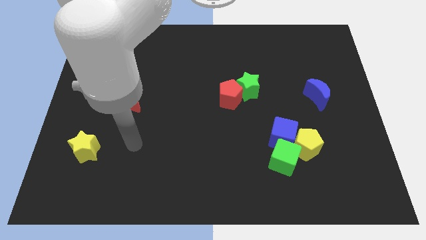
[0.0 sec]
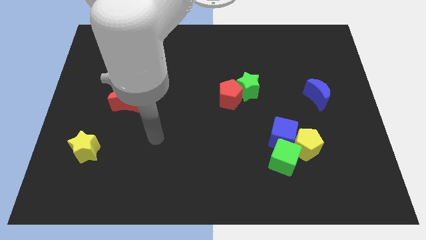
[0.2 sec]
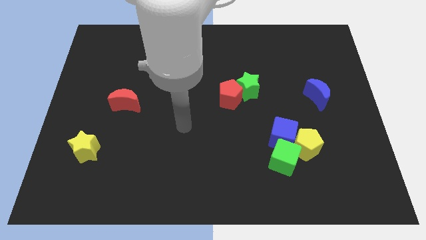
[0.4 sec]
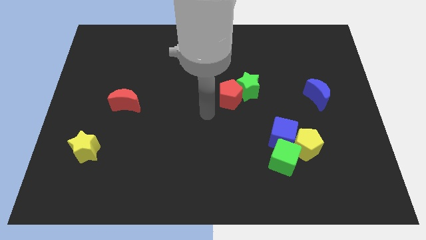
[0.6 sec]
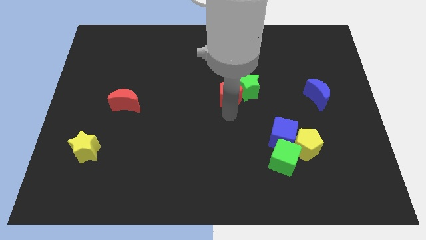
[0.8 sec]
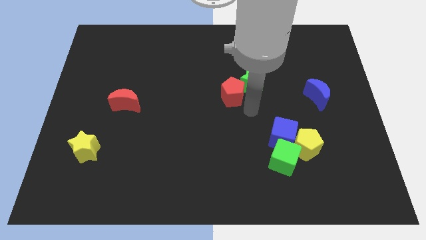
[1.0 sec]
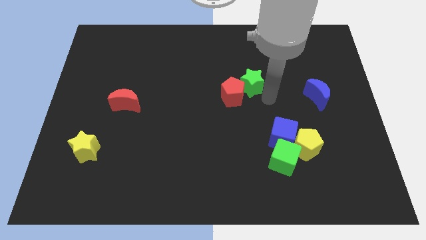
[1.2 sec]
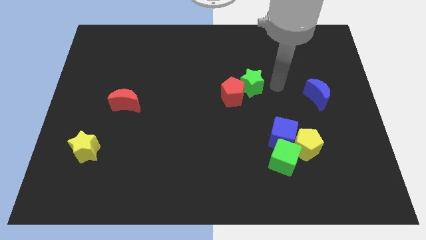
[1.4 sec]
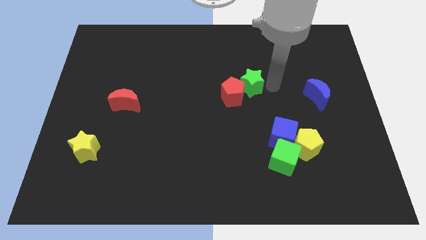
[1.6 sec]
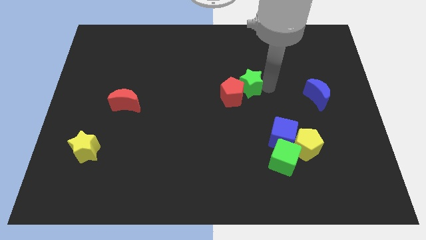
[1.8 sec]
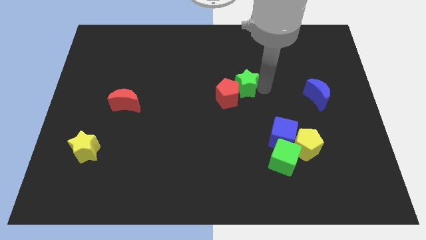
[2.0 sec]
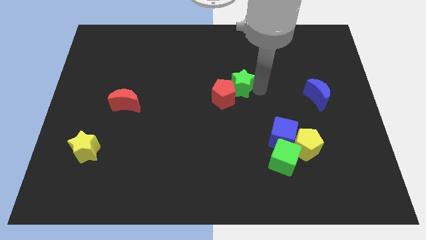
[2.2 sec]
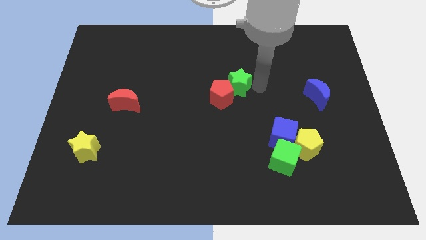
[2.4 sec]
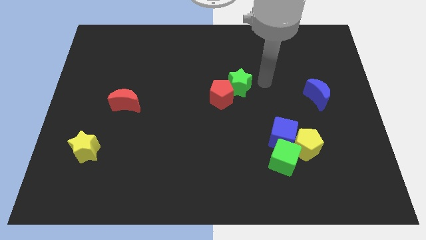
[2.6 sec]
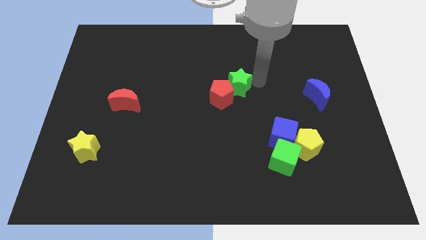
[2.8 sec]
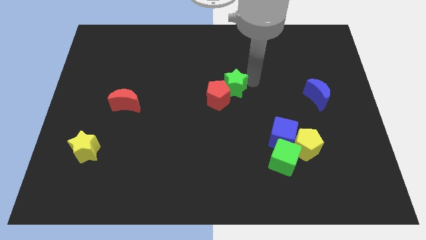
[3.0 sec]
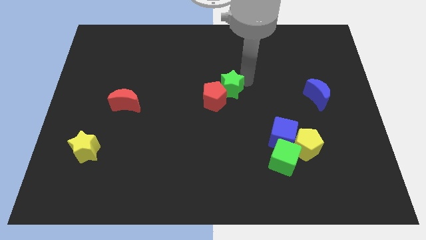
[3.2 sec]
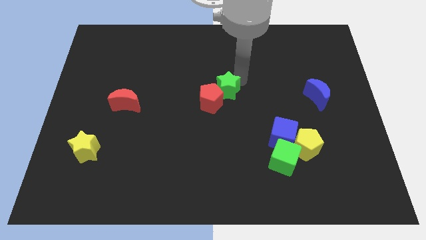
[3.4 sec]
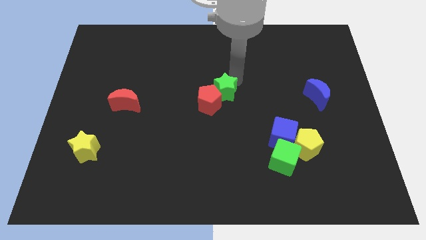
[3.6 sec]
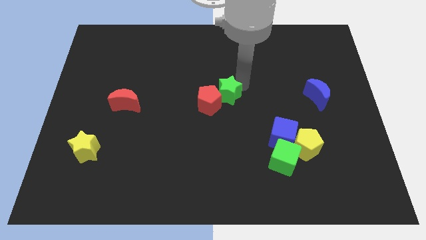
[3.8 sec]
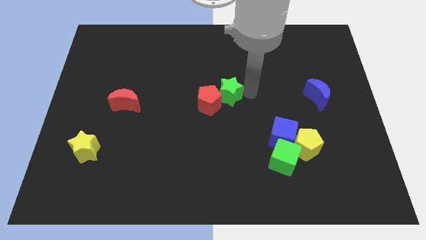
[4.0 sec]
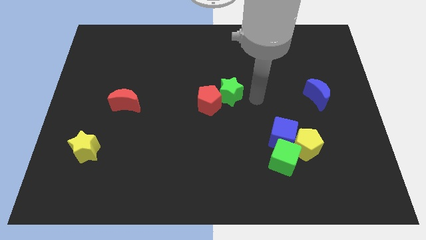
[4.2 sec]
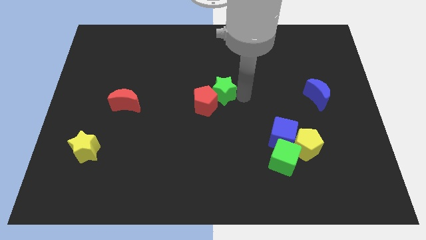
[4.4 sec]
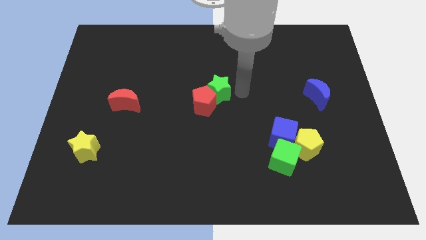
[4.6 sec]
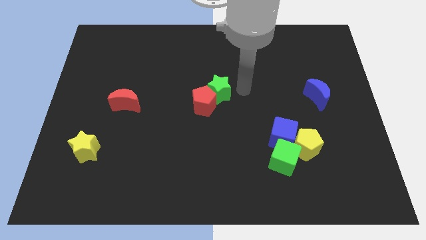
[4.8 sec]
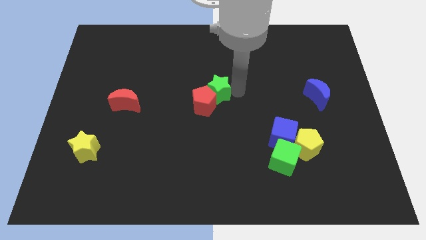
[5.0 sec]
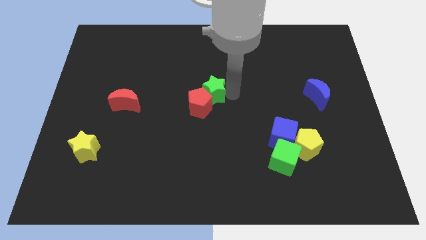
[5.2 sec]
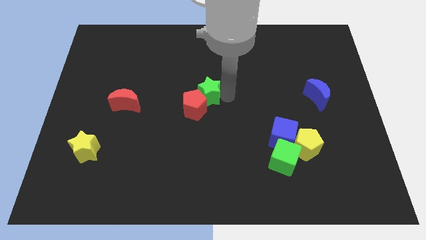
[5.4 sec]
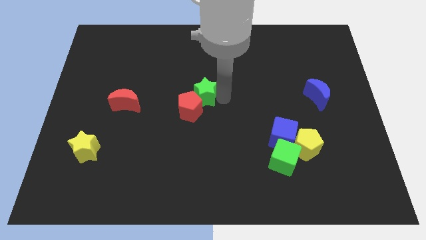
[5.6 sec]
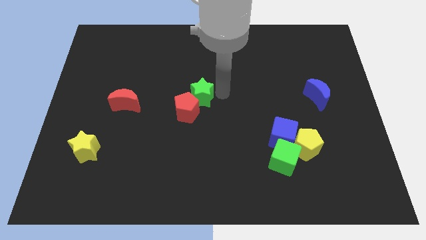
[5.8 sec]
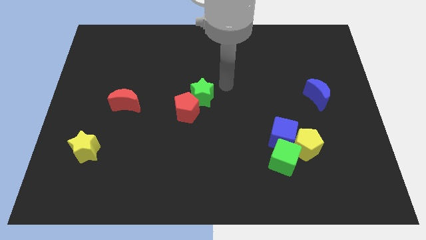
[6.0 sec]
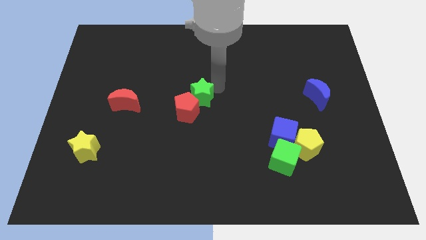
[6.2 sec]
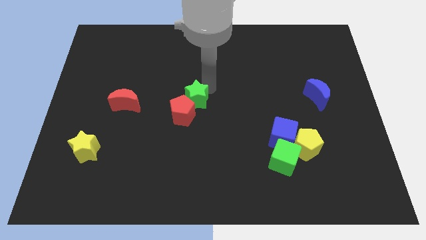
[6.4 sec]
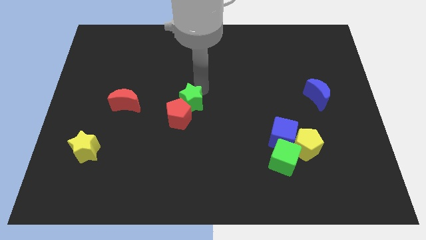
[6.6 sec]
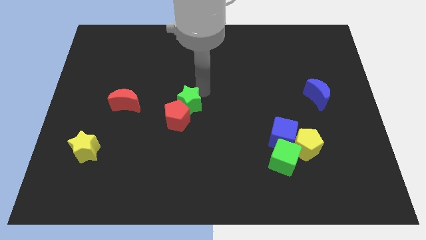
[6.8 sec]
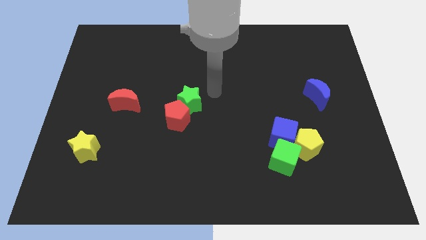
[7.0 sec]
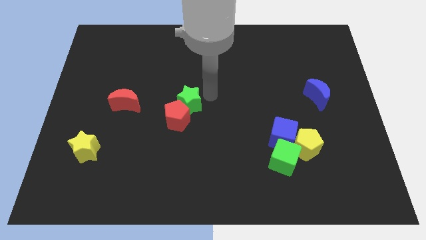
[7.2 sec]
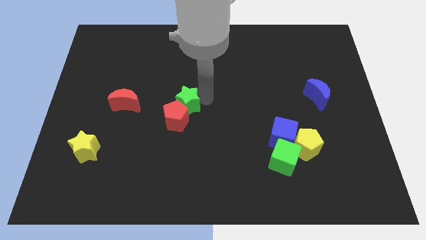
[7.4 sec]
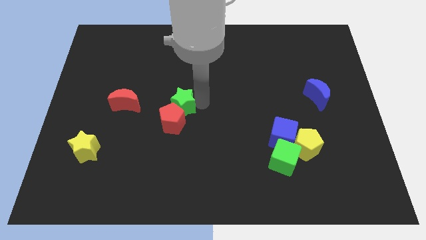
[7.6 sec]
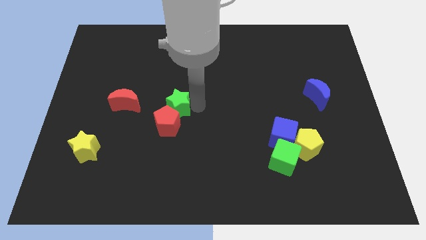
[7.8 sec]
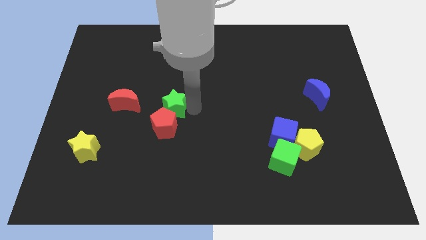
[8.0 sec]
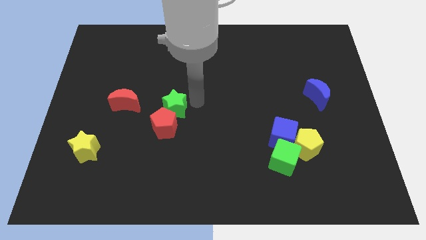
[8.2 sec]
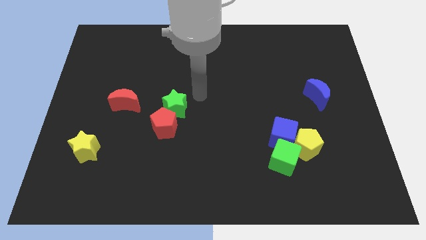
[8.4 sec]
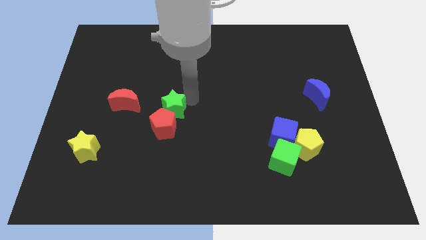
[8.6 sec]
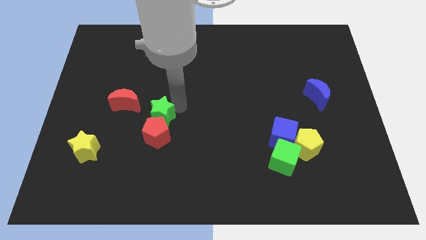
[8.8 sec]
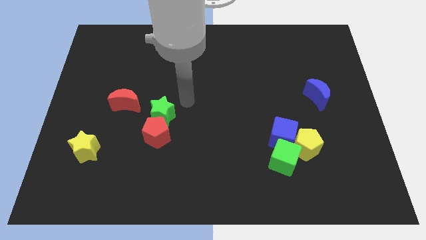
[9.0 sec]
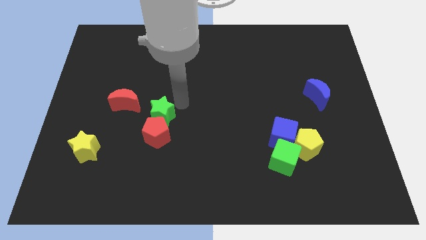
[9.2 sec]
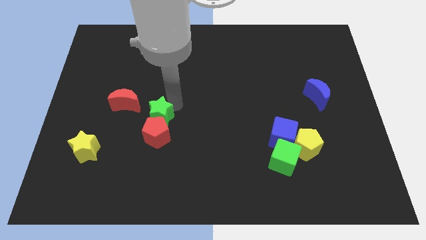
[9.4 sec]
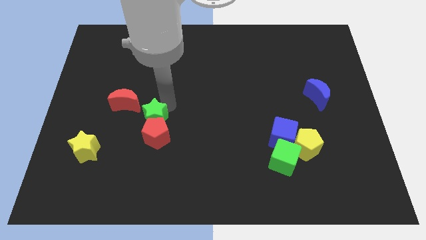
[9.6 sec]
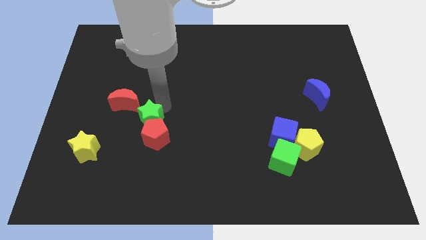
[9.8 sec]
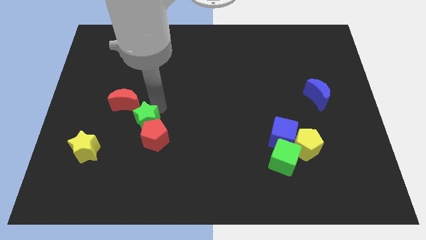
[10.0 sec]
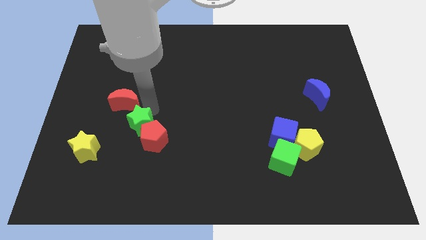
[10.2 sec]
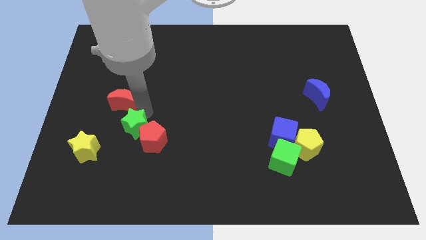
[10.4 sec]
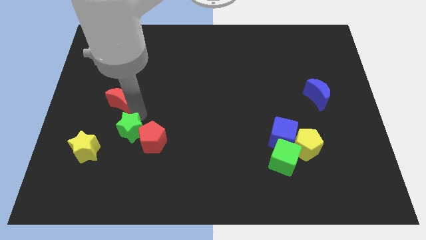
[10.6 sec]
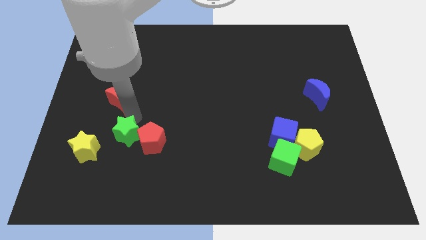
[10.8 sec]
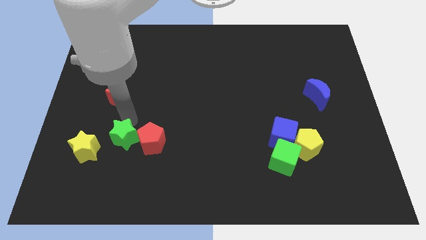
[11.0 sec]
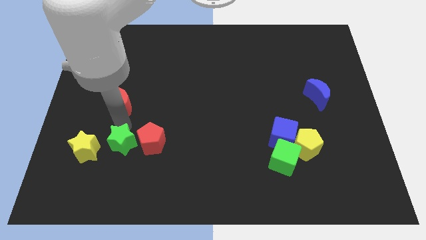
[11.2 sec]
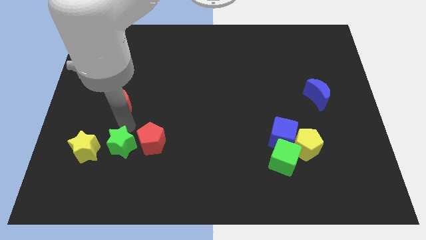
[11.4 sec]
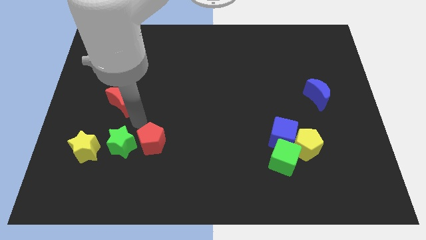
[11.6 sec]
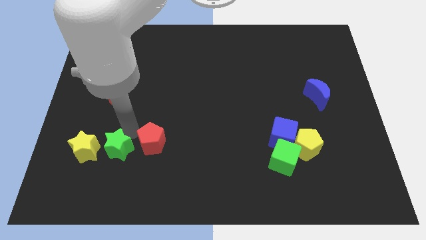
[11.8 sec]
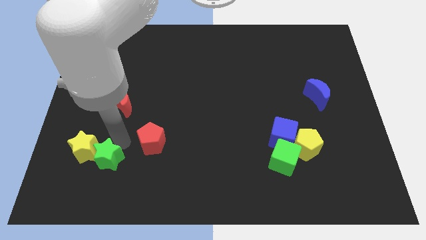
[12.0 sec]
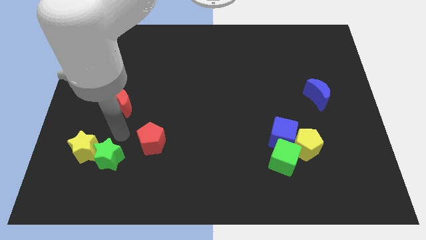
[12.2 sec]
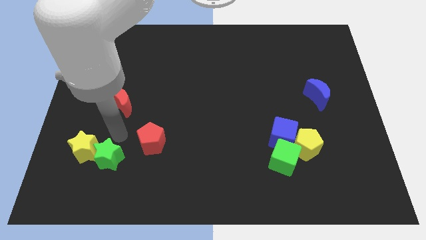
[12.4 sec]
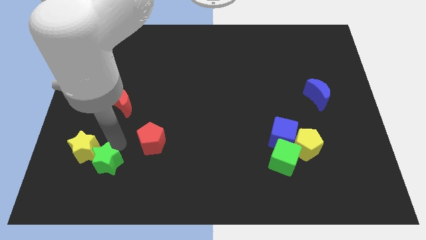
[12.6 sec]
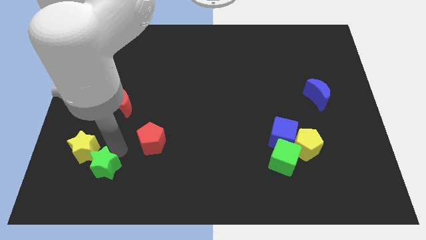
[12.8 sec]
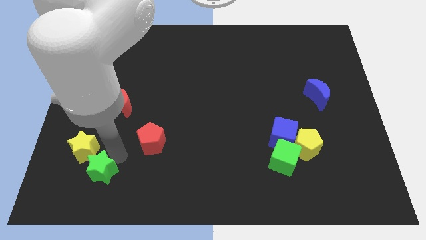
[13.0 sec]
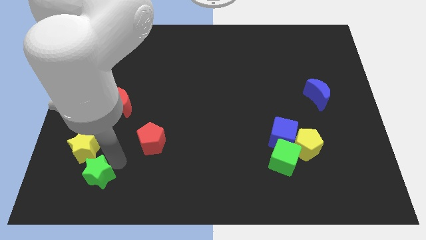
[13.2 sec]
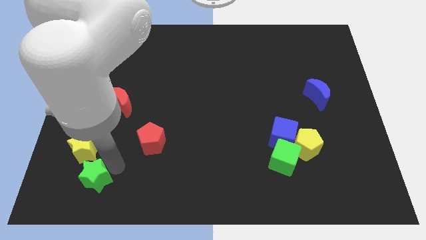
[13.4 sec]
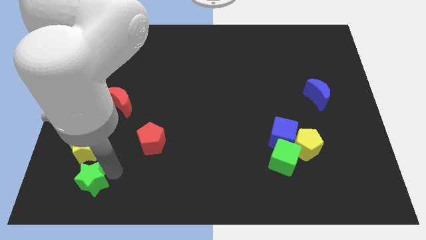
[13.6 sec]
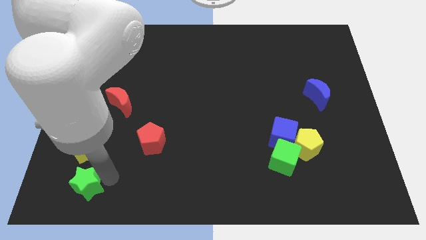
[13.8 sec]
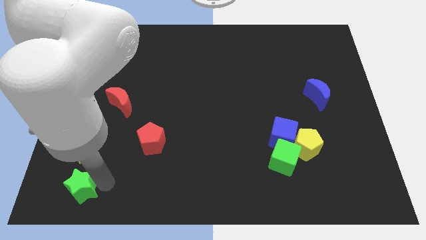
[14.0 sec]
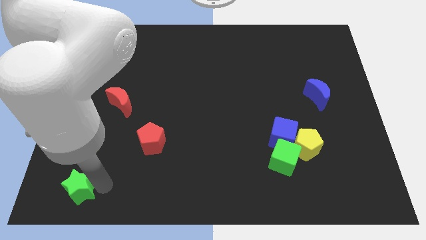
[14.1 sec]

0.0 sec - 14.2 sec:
slide the green star to the bottom left of the board
